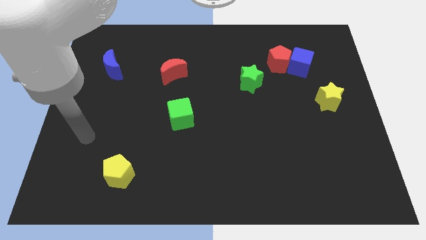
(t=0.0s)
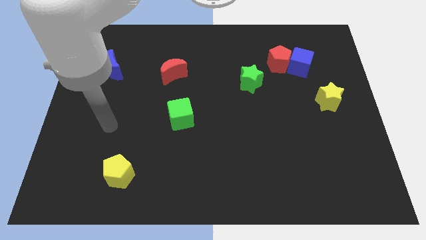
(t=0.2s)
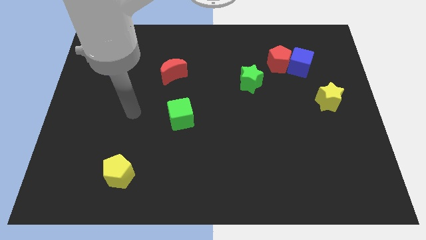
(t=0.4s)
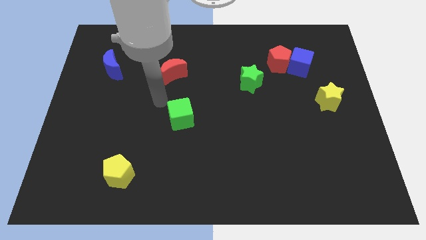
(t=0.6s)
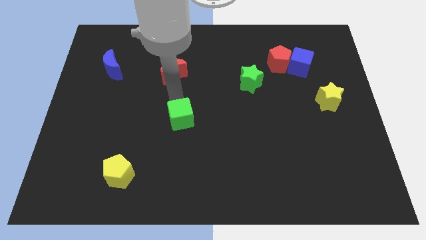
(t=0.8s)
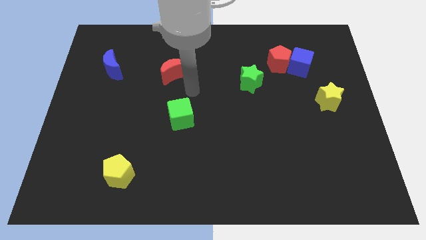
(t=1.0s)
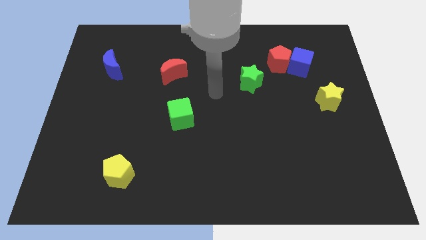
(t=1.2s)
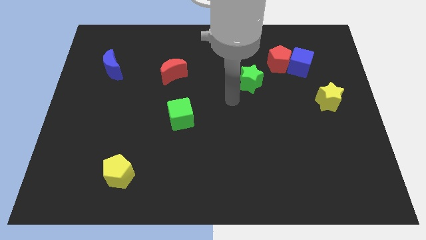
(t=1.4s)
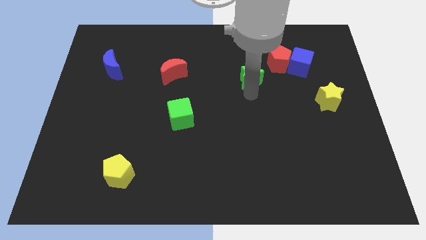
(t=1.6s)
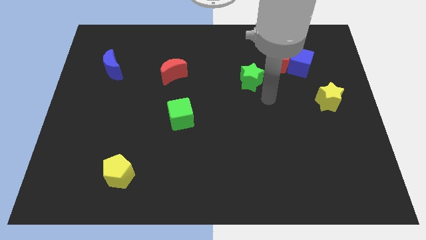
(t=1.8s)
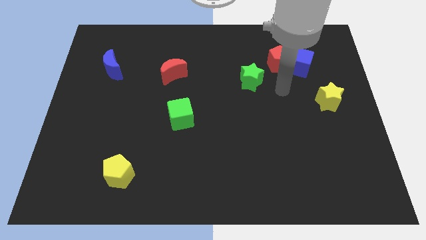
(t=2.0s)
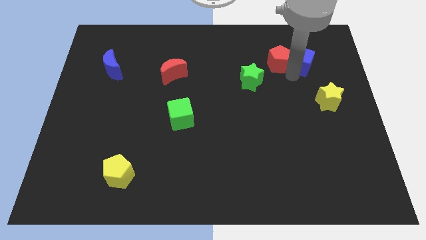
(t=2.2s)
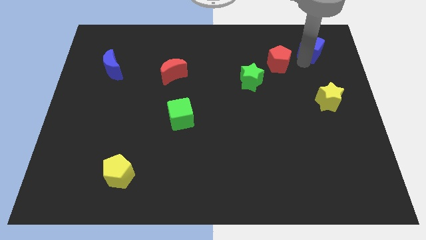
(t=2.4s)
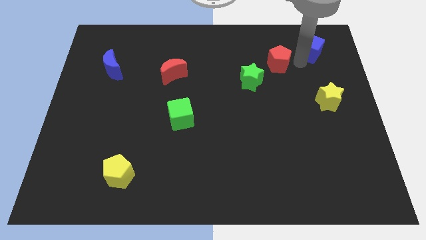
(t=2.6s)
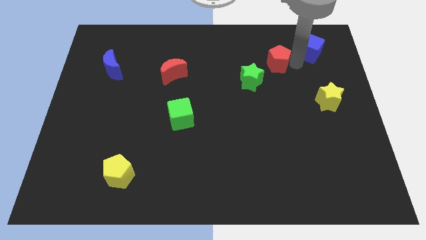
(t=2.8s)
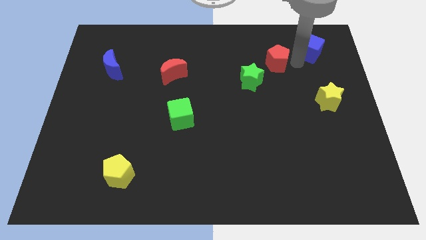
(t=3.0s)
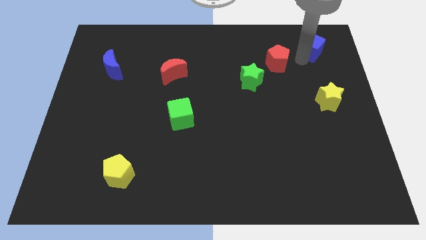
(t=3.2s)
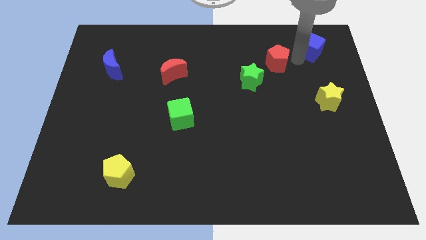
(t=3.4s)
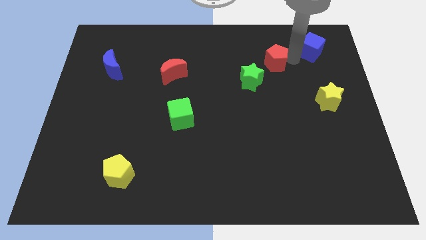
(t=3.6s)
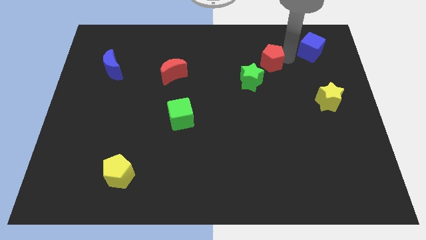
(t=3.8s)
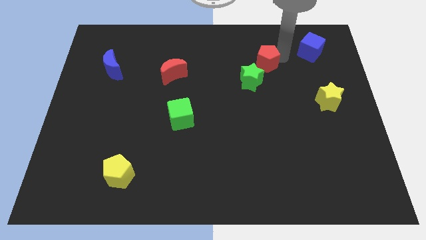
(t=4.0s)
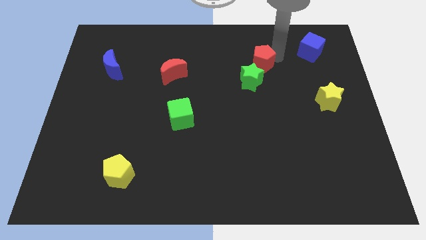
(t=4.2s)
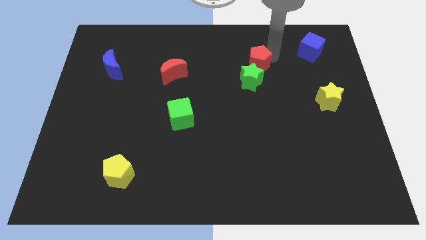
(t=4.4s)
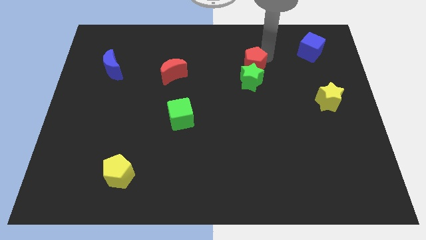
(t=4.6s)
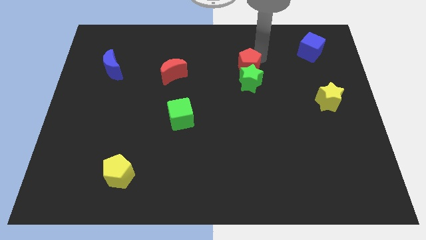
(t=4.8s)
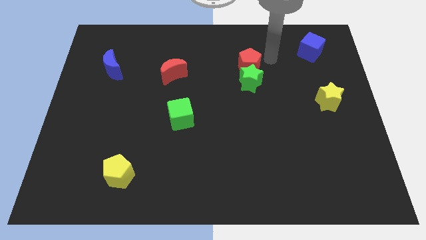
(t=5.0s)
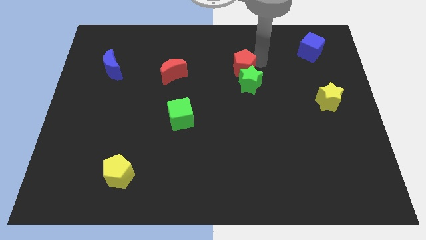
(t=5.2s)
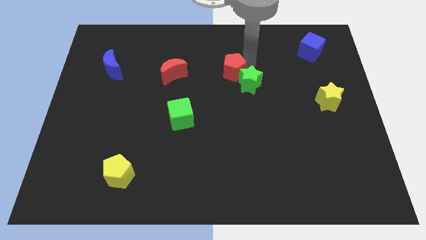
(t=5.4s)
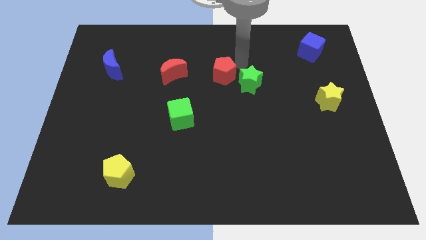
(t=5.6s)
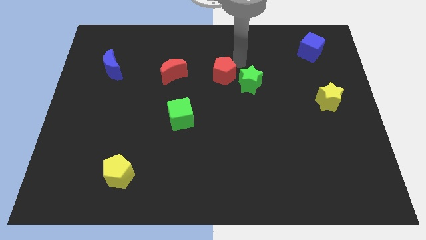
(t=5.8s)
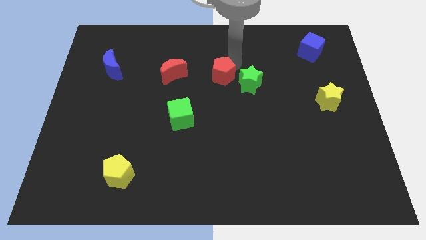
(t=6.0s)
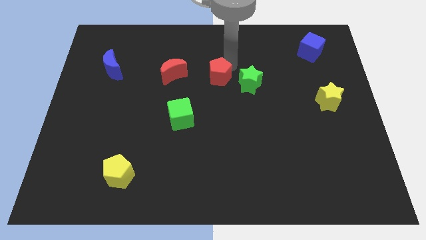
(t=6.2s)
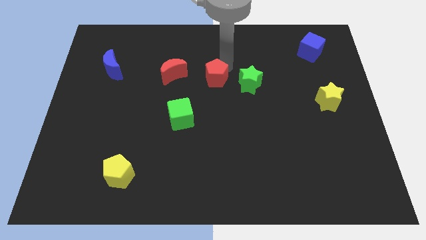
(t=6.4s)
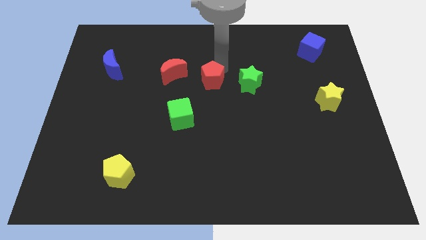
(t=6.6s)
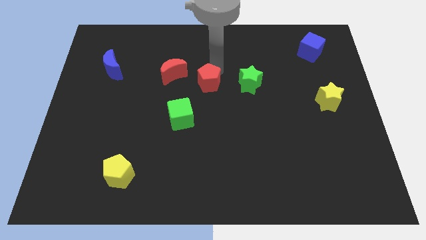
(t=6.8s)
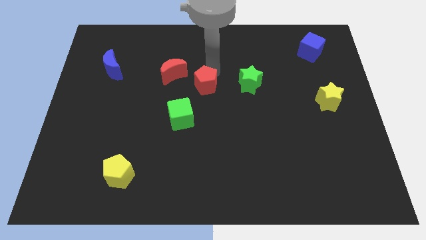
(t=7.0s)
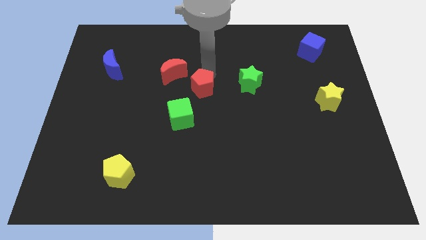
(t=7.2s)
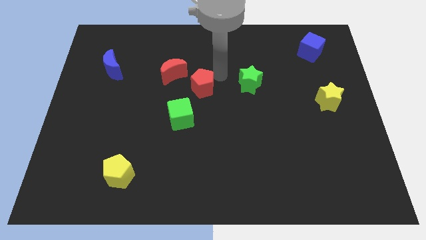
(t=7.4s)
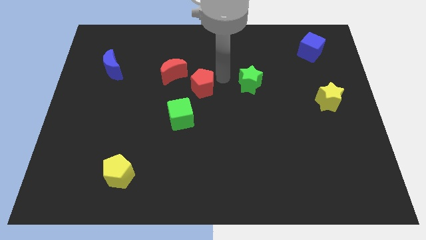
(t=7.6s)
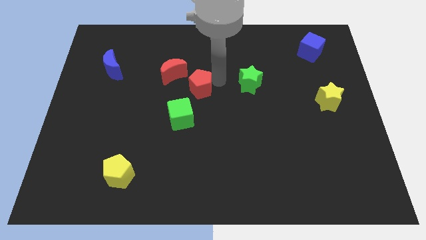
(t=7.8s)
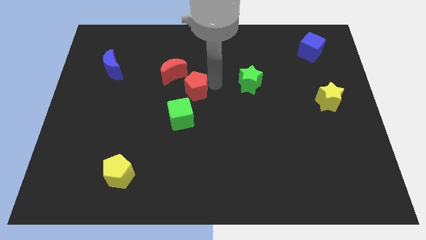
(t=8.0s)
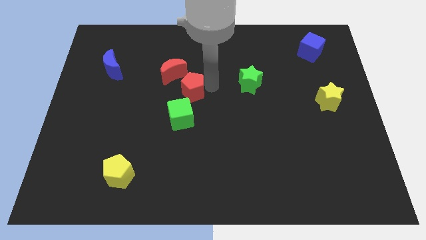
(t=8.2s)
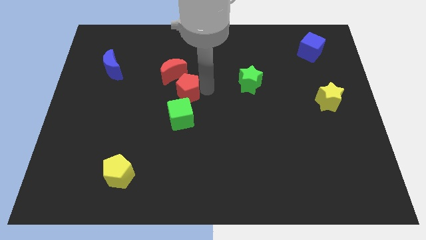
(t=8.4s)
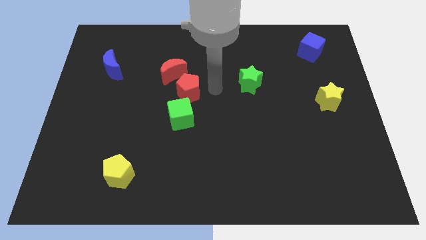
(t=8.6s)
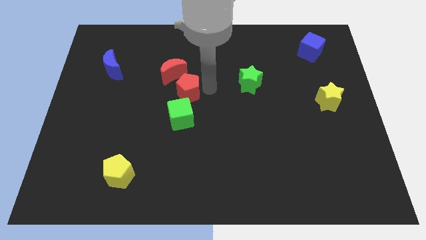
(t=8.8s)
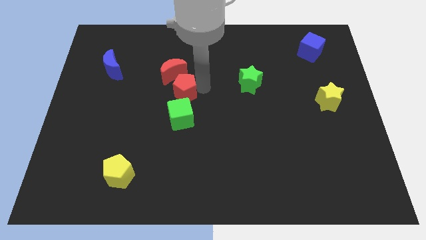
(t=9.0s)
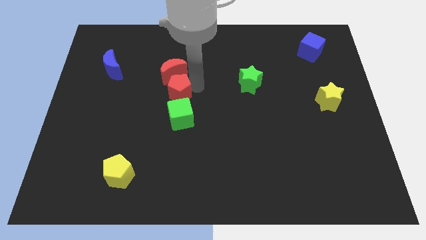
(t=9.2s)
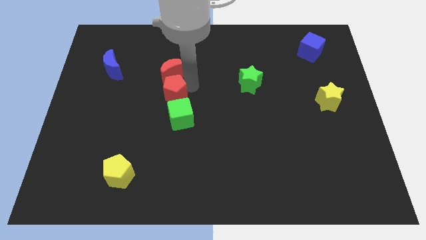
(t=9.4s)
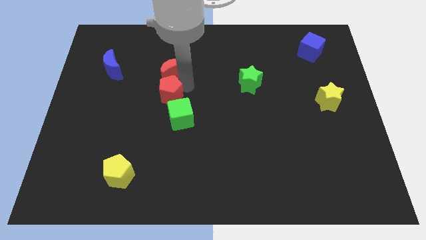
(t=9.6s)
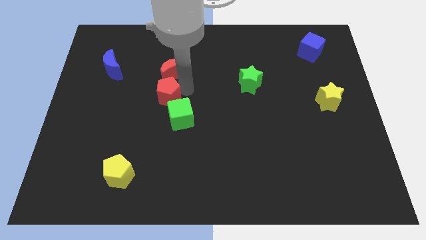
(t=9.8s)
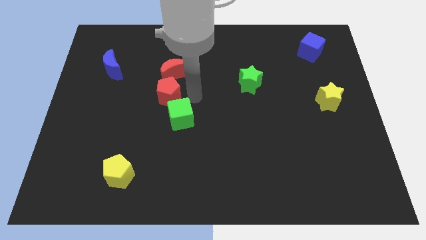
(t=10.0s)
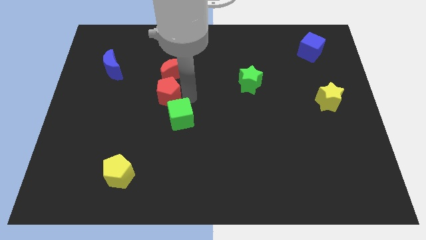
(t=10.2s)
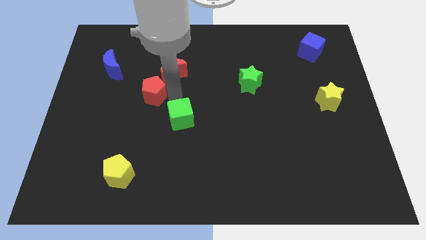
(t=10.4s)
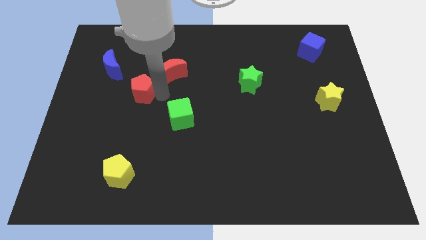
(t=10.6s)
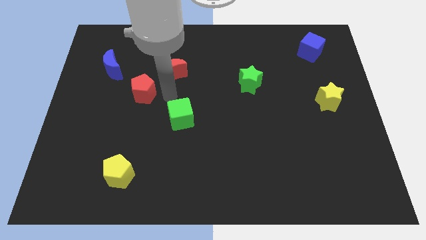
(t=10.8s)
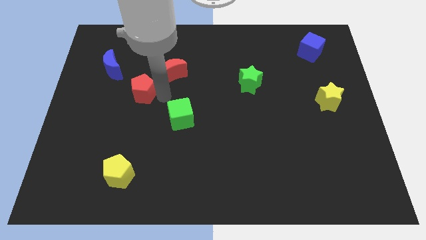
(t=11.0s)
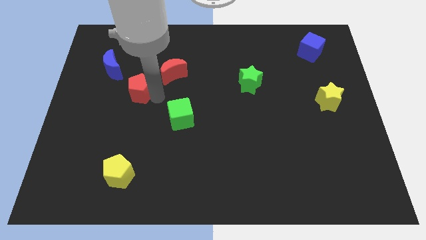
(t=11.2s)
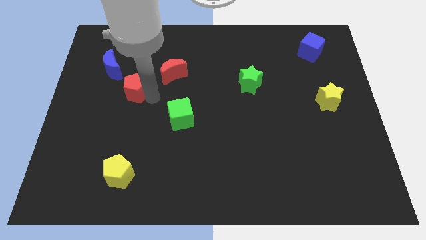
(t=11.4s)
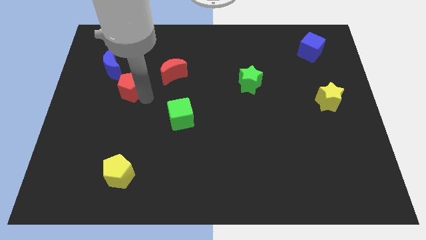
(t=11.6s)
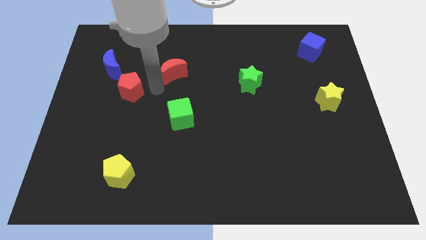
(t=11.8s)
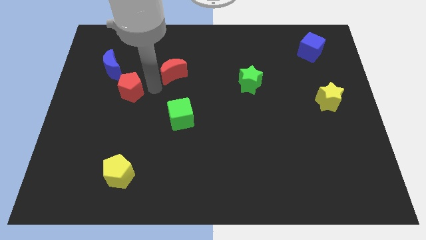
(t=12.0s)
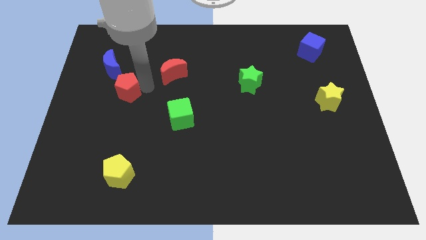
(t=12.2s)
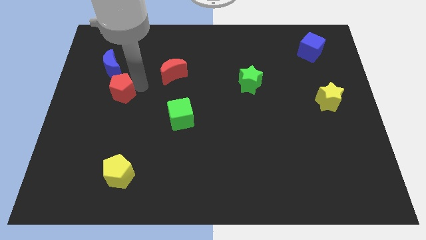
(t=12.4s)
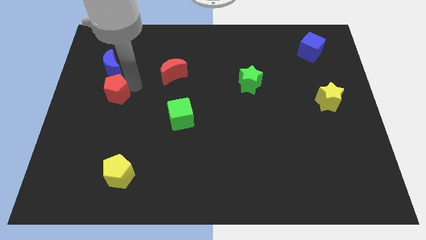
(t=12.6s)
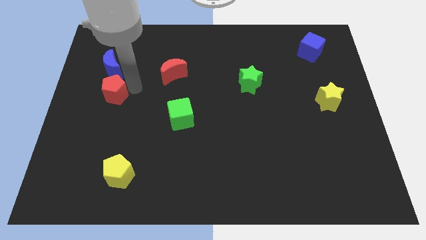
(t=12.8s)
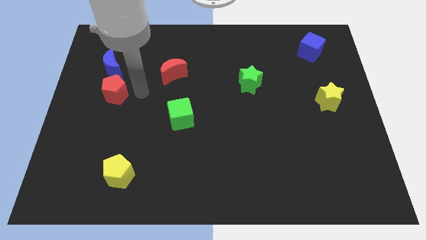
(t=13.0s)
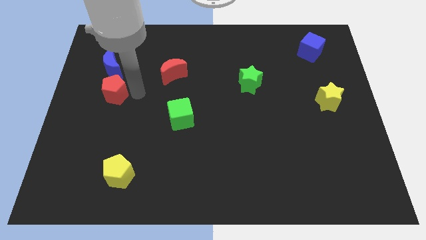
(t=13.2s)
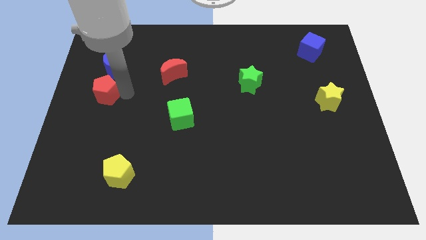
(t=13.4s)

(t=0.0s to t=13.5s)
slide the red pentagon to the left side
